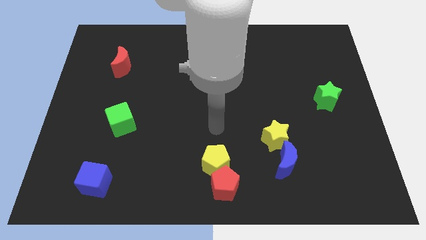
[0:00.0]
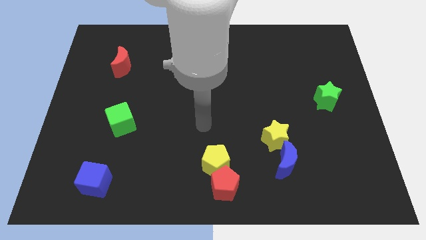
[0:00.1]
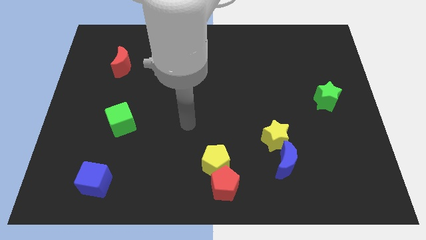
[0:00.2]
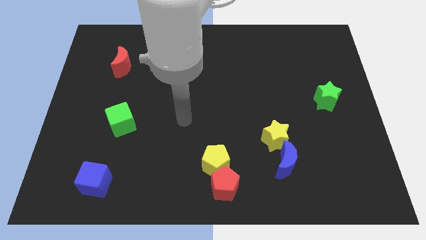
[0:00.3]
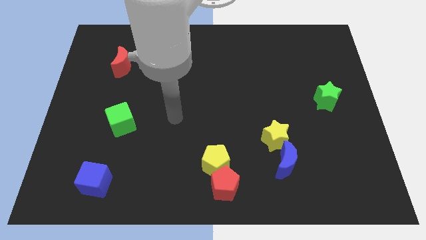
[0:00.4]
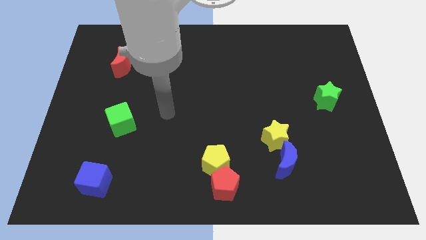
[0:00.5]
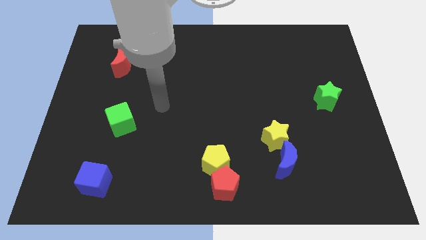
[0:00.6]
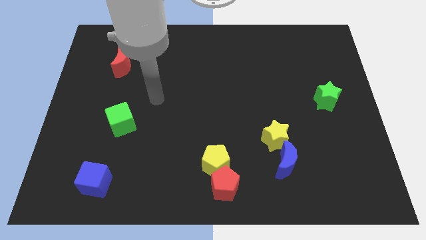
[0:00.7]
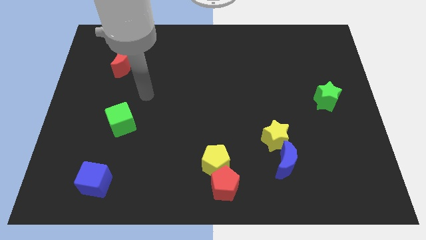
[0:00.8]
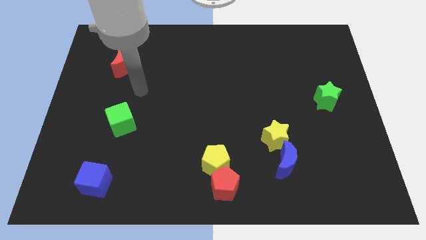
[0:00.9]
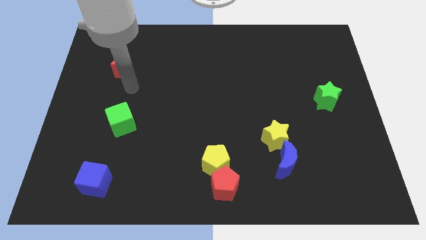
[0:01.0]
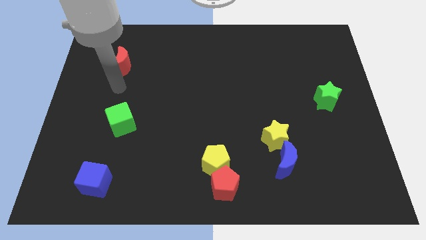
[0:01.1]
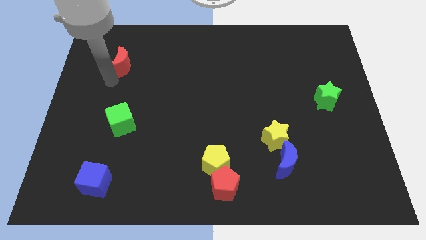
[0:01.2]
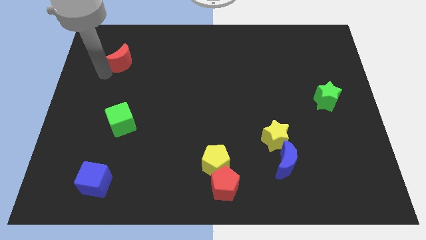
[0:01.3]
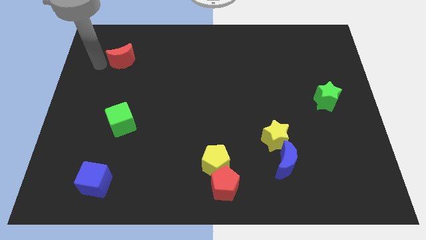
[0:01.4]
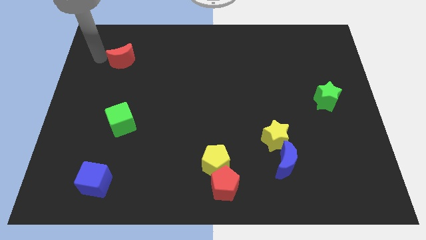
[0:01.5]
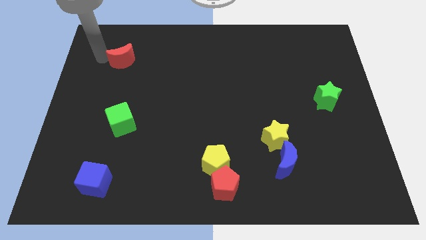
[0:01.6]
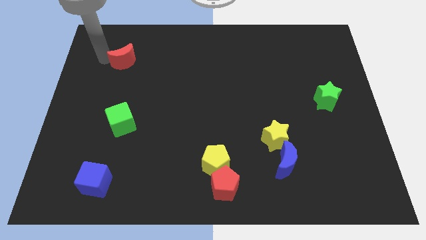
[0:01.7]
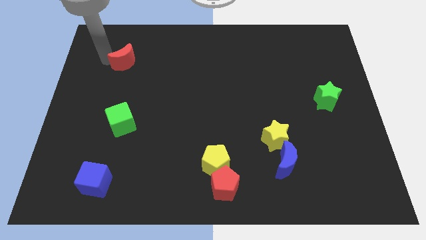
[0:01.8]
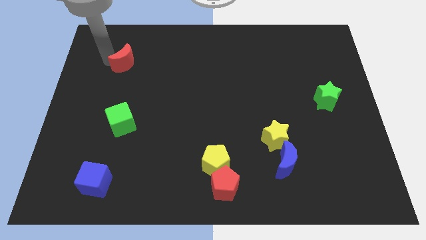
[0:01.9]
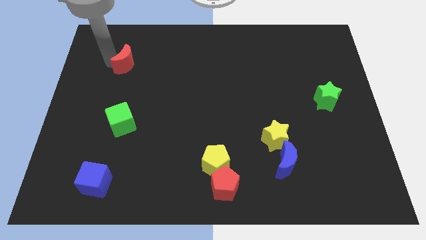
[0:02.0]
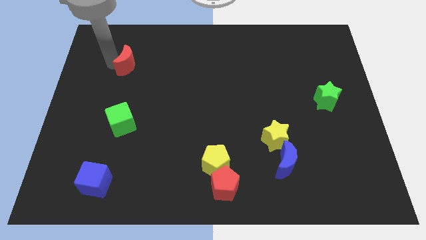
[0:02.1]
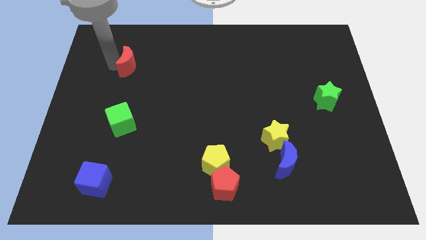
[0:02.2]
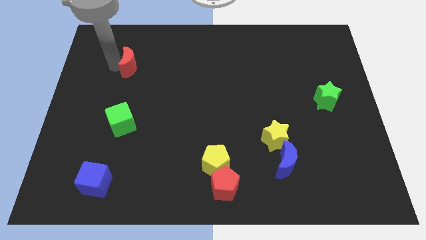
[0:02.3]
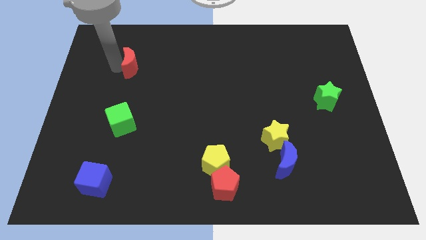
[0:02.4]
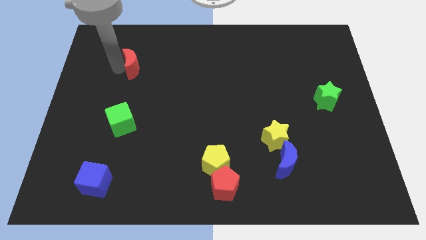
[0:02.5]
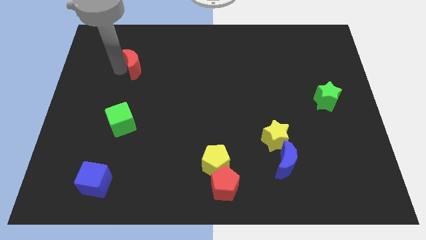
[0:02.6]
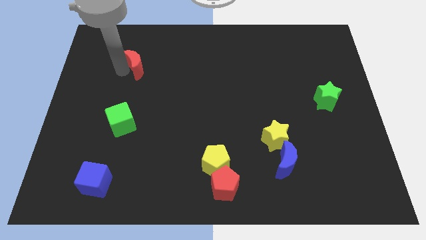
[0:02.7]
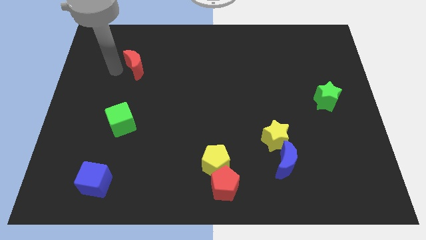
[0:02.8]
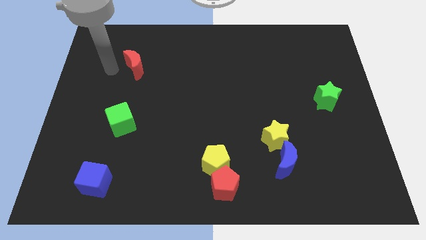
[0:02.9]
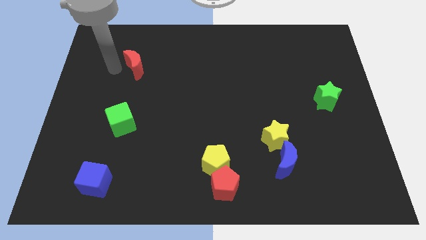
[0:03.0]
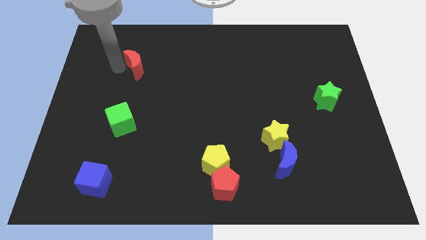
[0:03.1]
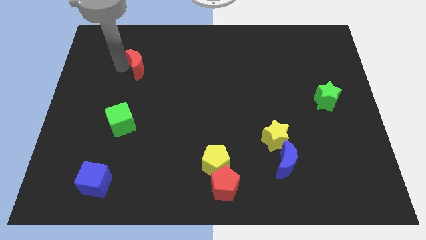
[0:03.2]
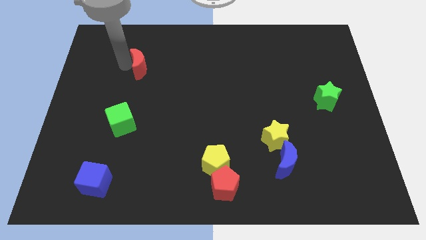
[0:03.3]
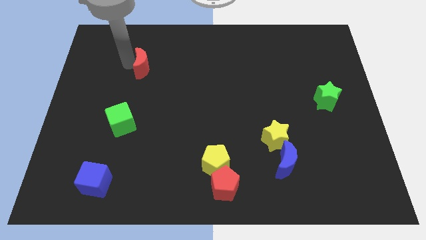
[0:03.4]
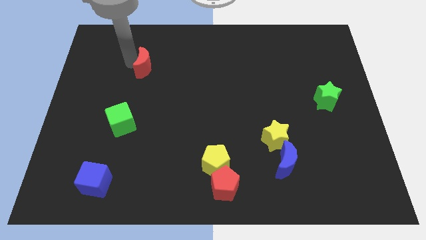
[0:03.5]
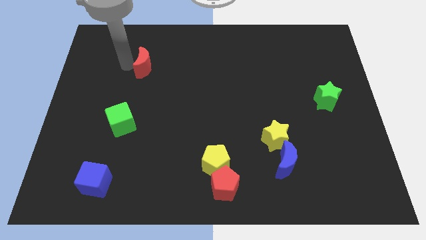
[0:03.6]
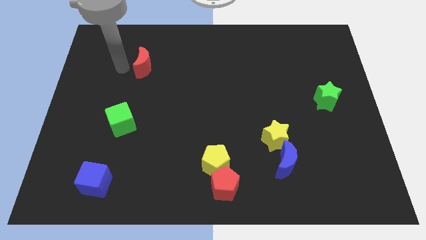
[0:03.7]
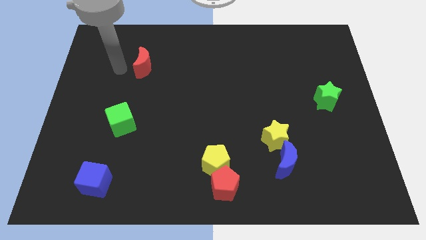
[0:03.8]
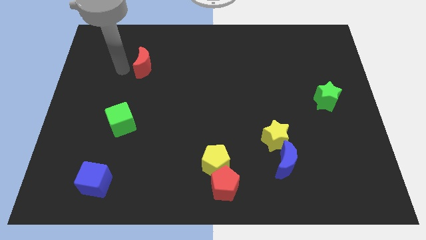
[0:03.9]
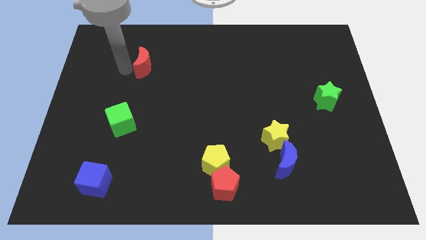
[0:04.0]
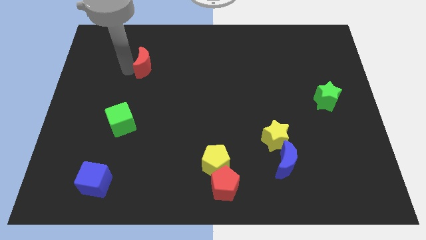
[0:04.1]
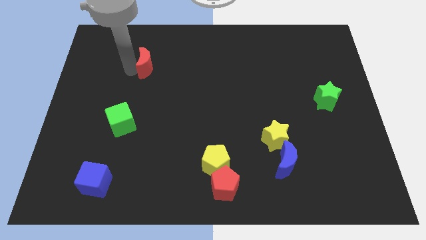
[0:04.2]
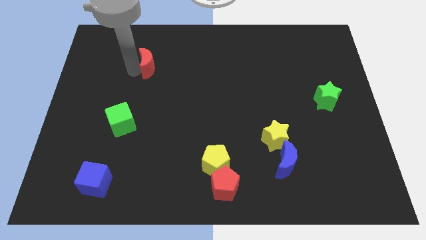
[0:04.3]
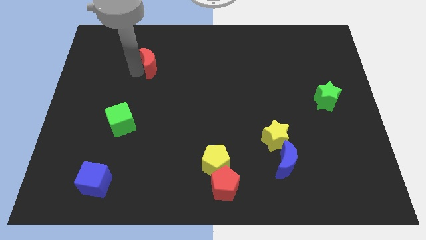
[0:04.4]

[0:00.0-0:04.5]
push the red moon a little to the right

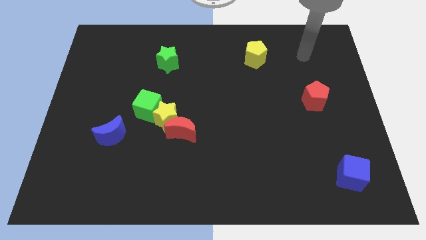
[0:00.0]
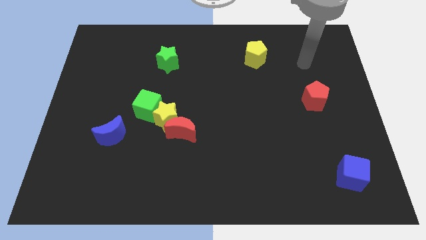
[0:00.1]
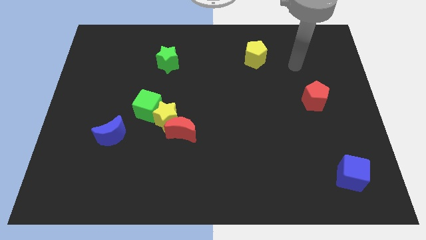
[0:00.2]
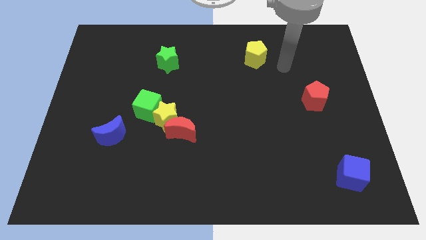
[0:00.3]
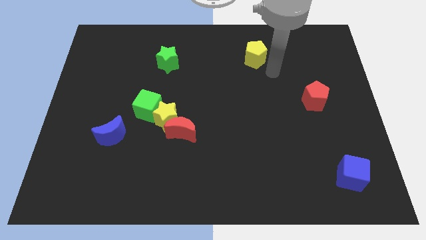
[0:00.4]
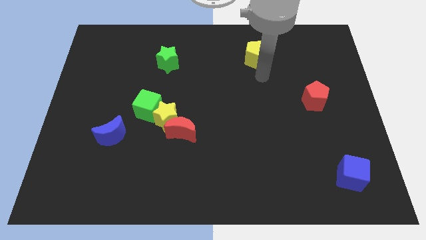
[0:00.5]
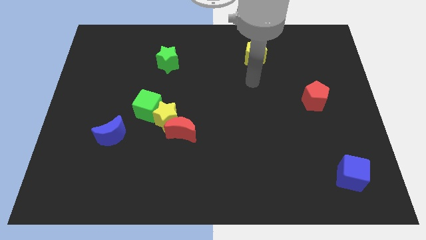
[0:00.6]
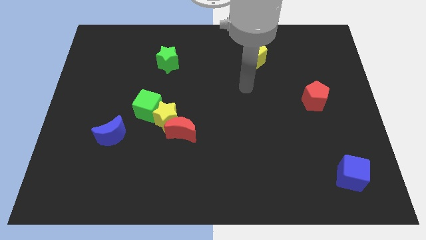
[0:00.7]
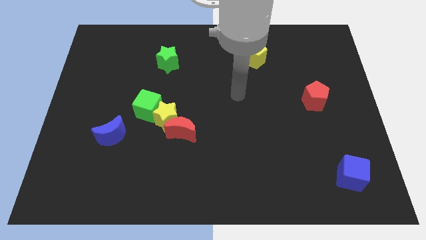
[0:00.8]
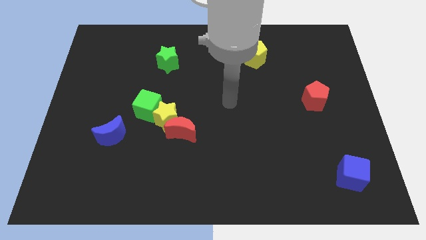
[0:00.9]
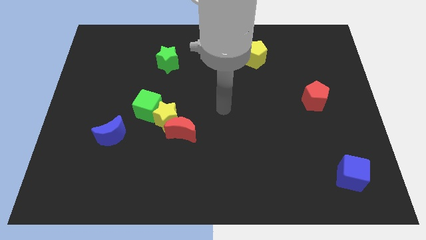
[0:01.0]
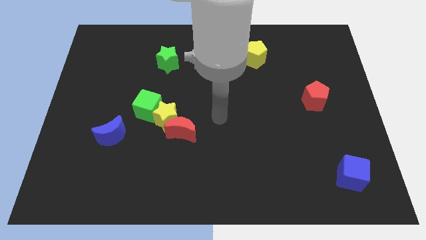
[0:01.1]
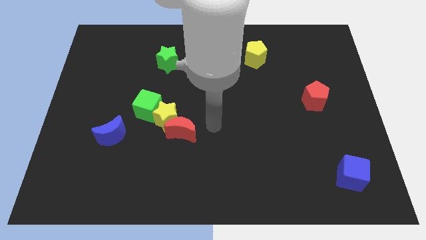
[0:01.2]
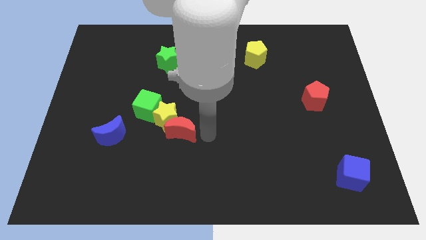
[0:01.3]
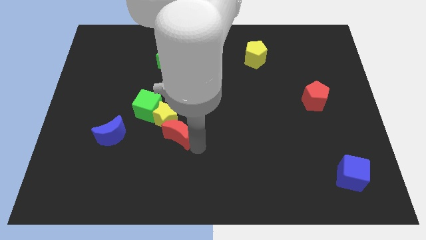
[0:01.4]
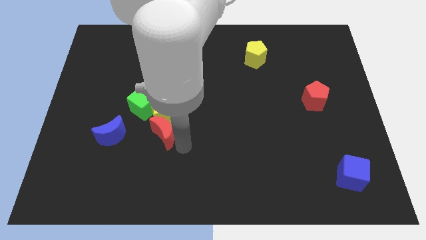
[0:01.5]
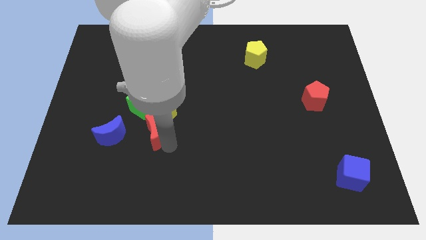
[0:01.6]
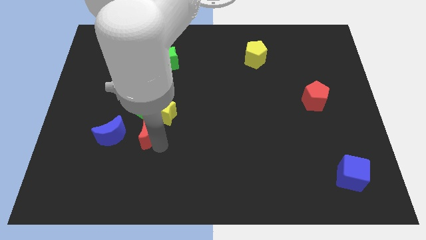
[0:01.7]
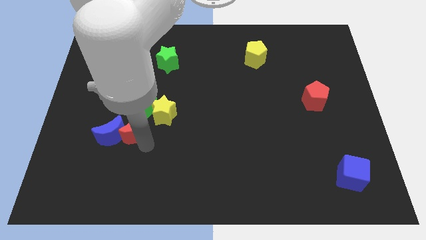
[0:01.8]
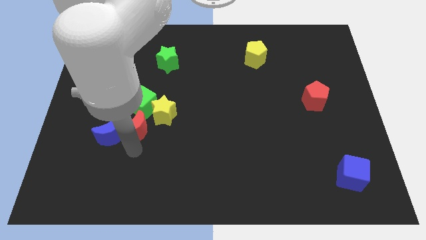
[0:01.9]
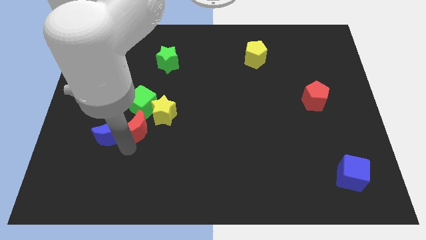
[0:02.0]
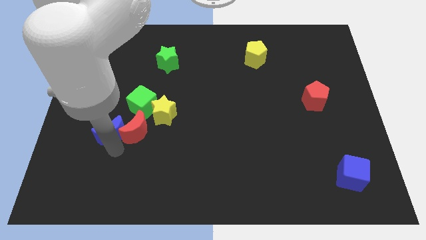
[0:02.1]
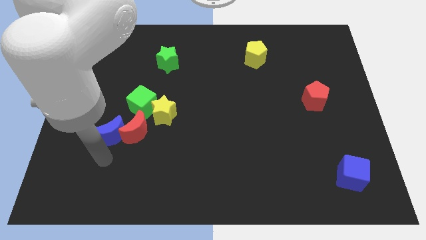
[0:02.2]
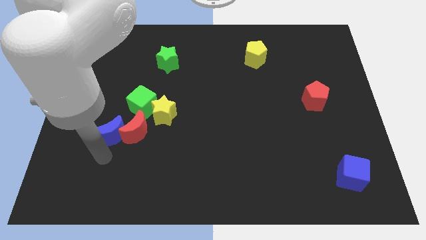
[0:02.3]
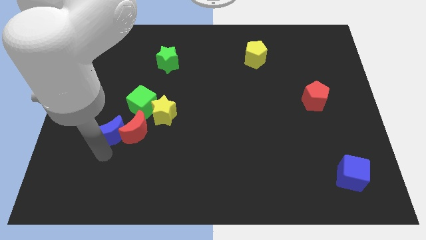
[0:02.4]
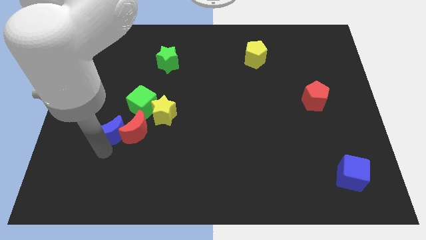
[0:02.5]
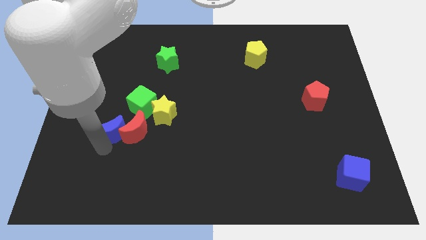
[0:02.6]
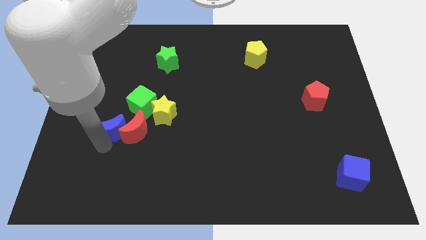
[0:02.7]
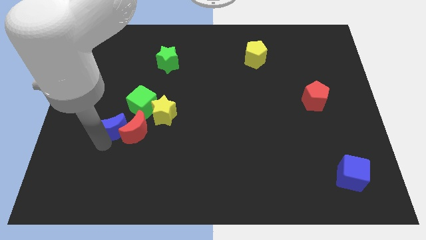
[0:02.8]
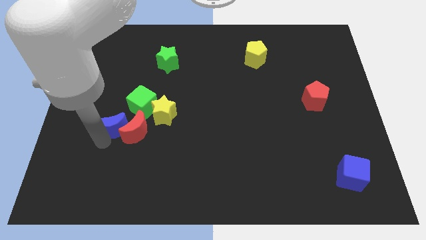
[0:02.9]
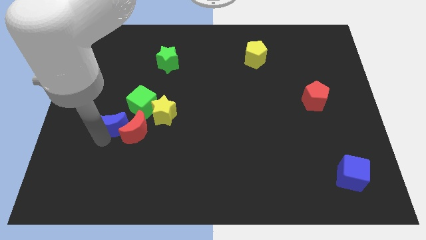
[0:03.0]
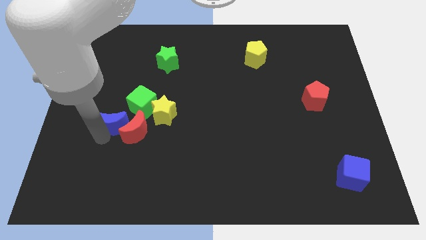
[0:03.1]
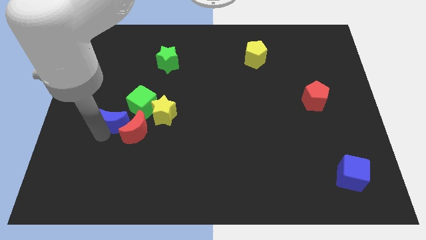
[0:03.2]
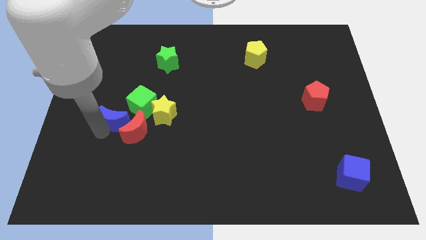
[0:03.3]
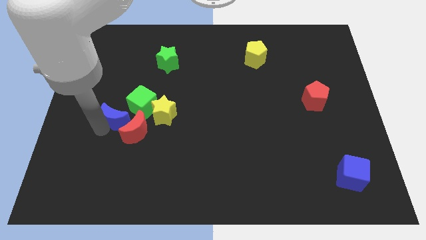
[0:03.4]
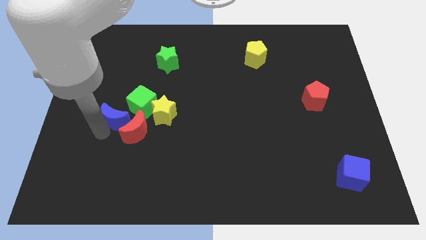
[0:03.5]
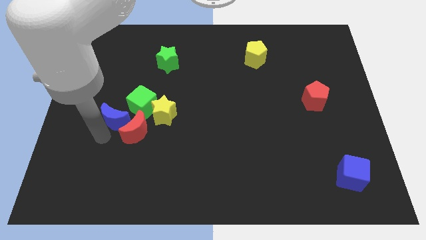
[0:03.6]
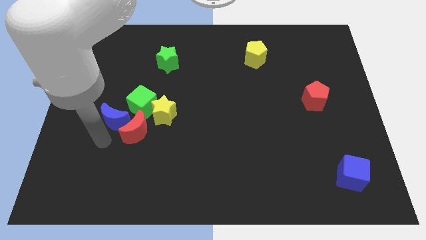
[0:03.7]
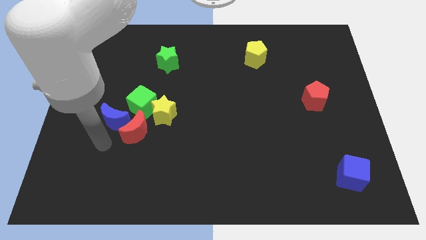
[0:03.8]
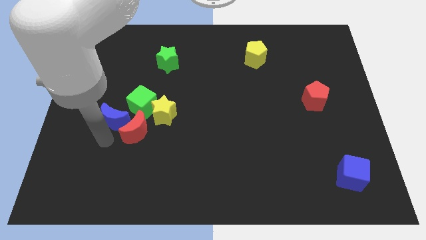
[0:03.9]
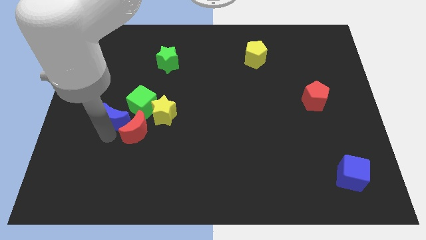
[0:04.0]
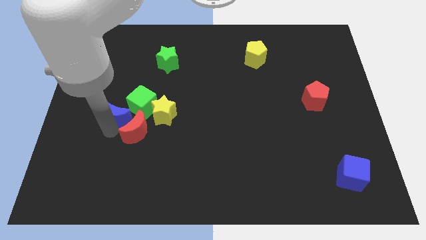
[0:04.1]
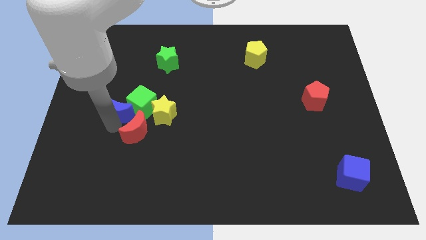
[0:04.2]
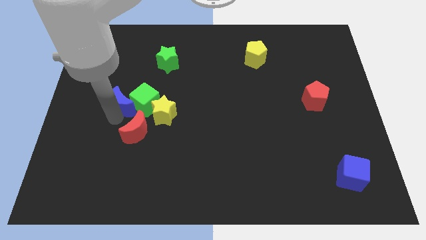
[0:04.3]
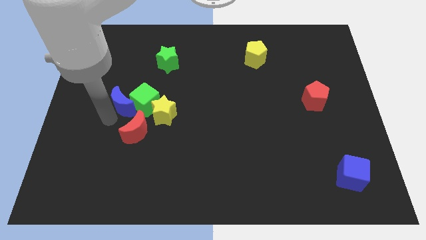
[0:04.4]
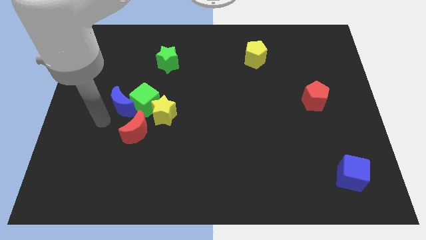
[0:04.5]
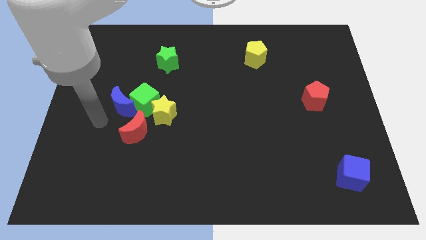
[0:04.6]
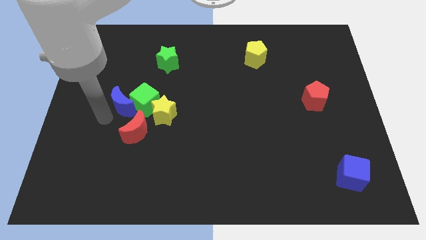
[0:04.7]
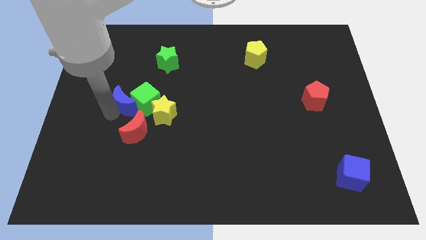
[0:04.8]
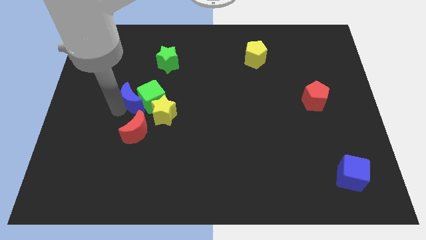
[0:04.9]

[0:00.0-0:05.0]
slightly move the blue moon up and then to the right
